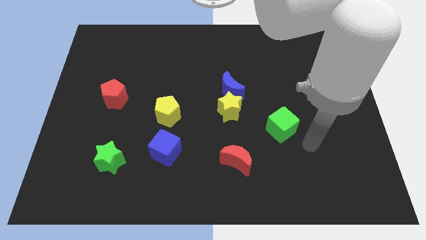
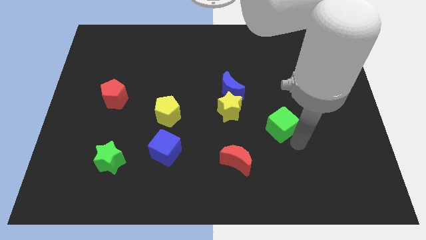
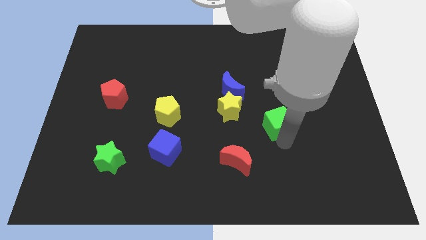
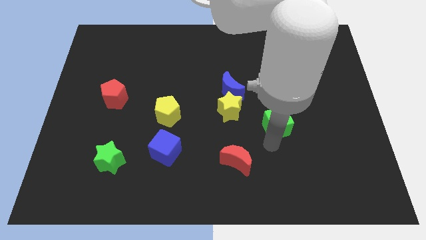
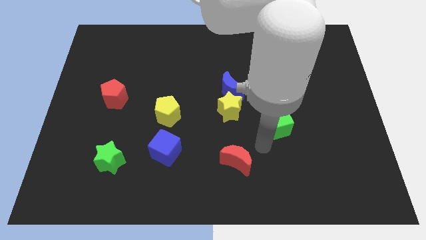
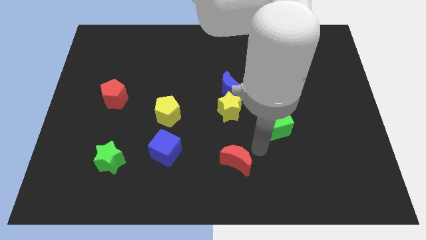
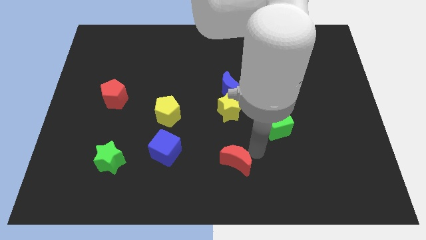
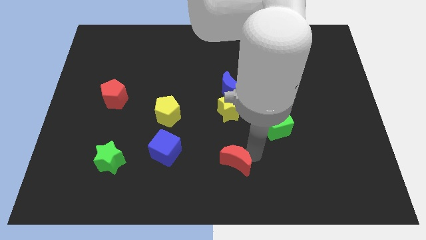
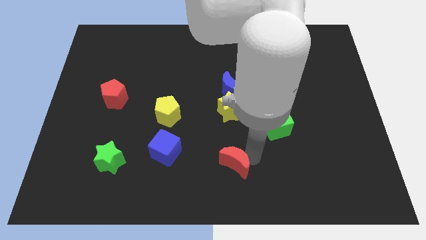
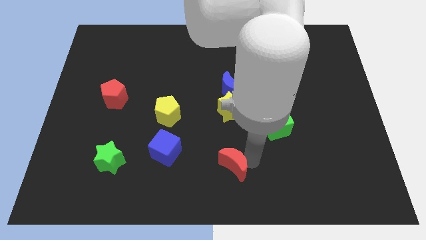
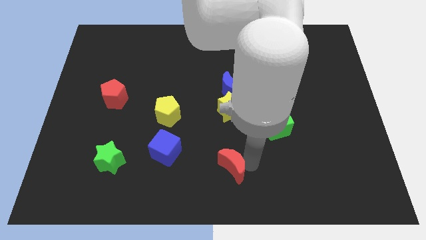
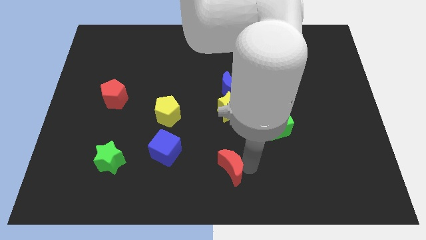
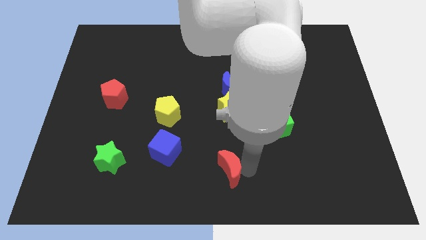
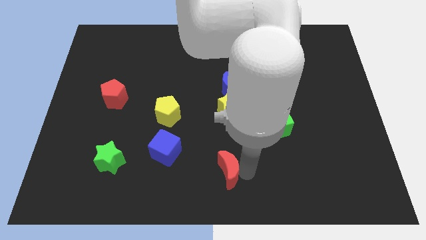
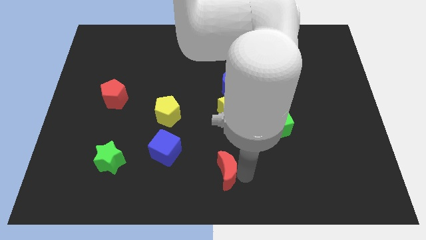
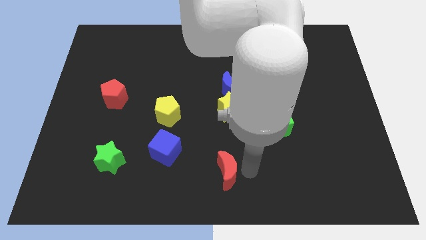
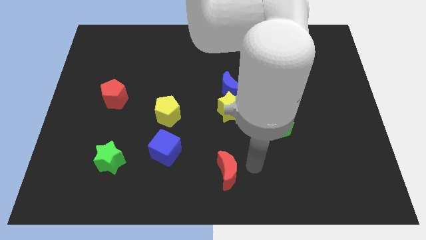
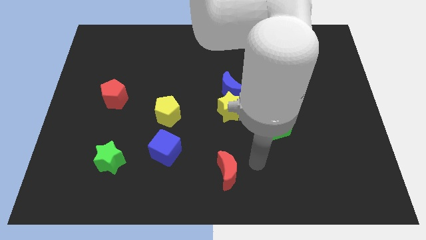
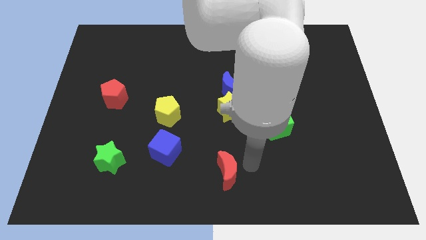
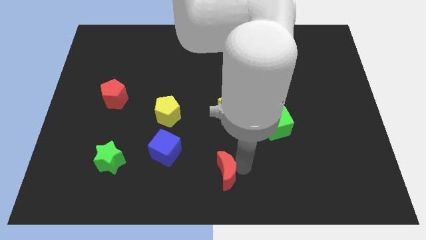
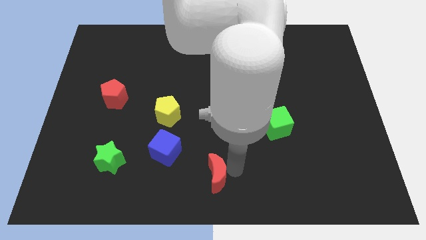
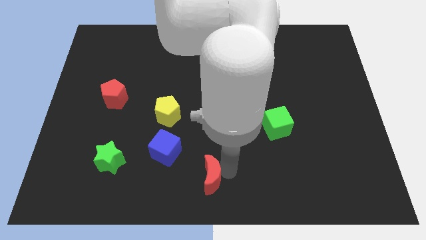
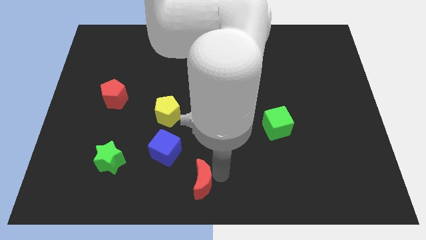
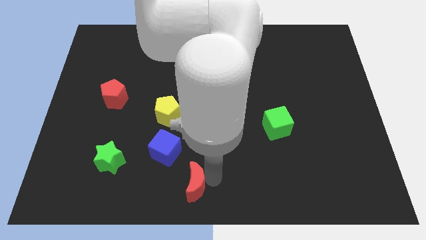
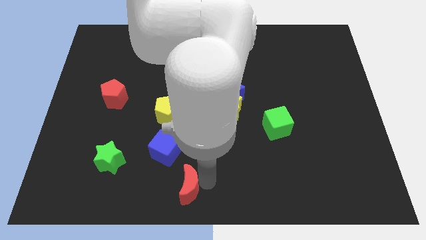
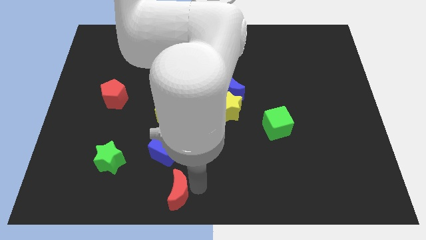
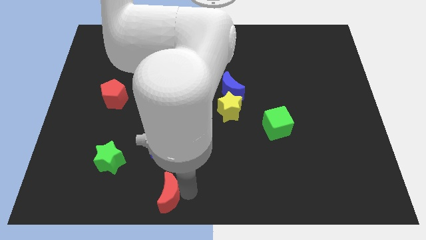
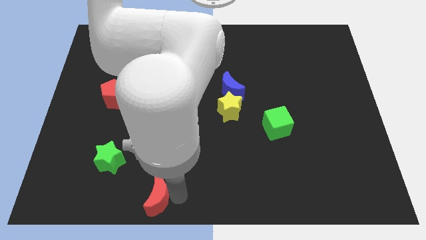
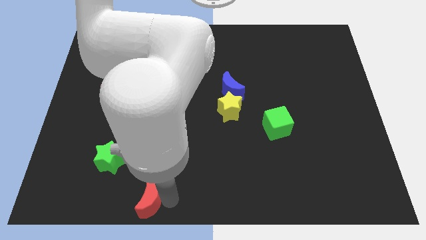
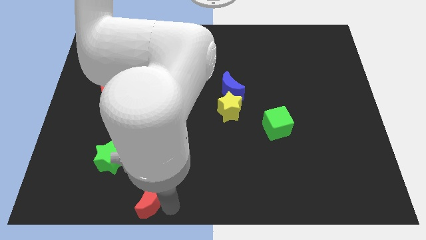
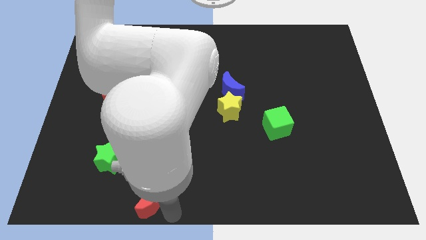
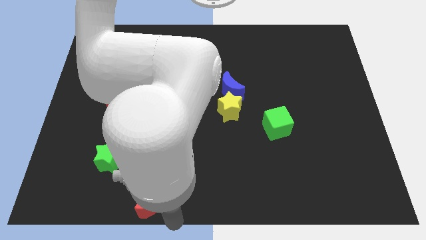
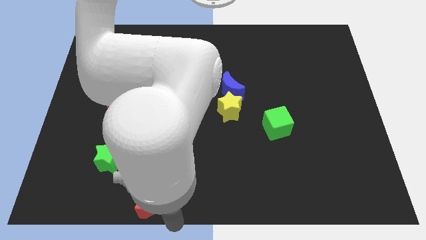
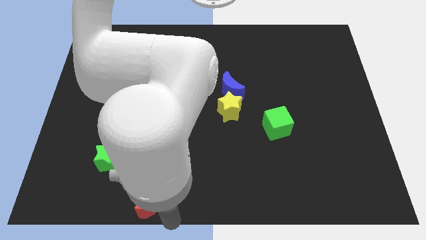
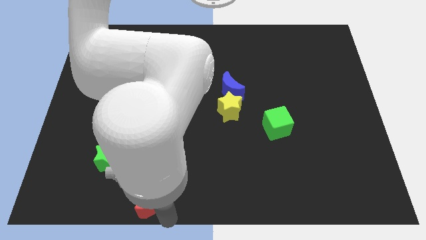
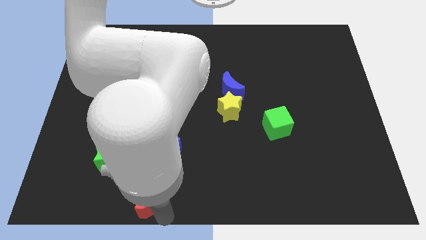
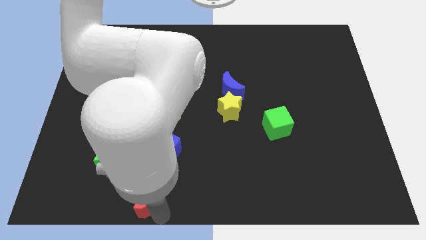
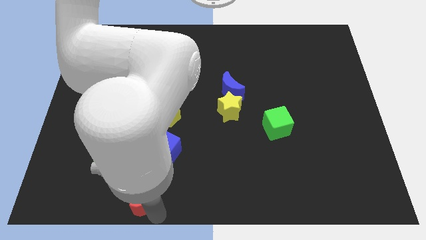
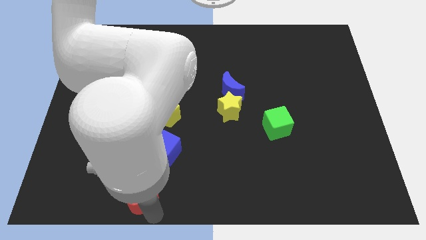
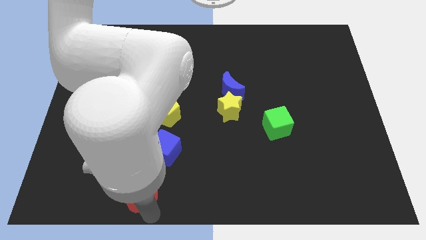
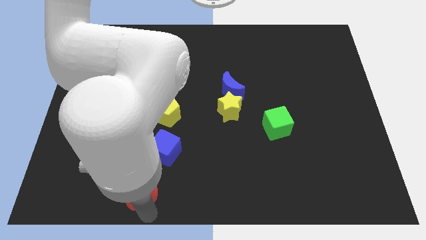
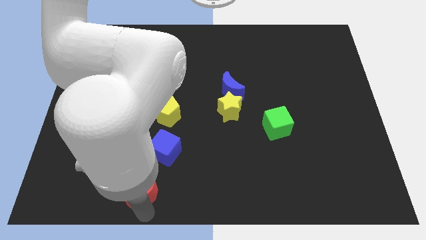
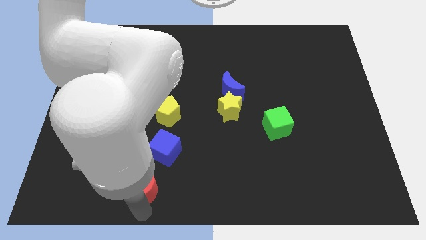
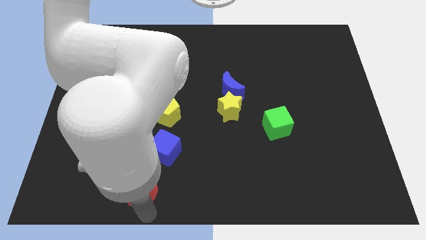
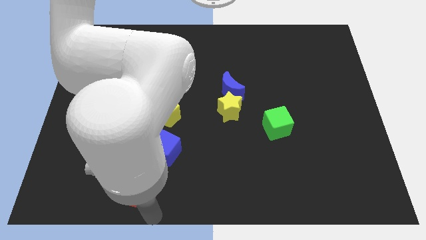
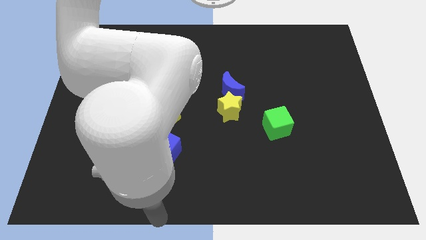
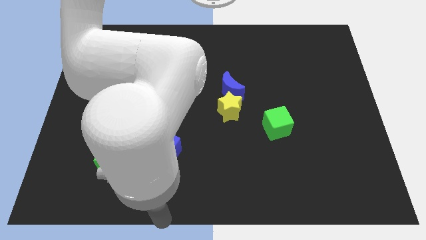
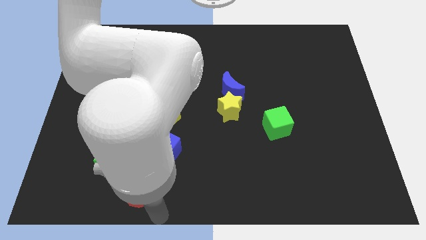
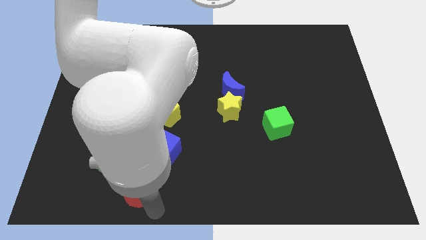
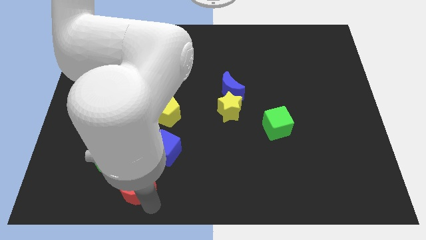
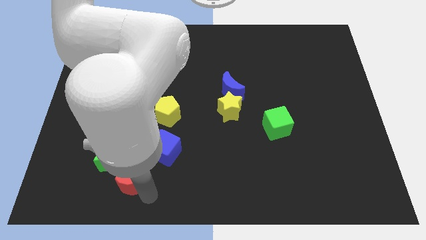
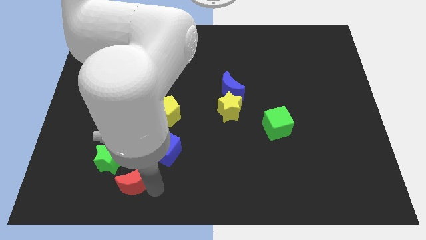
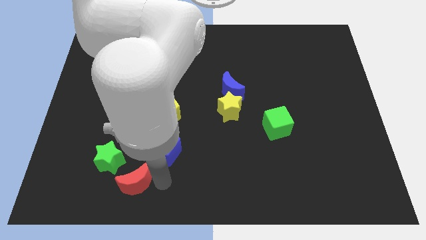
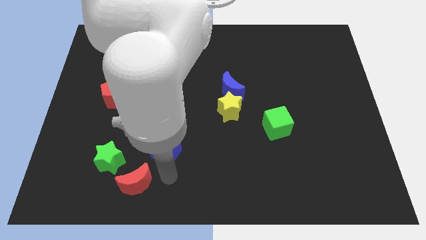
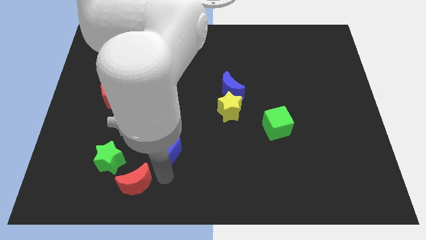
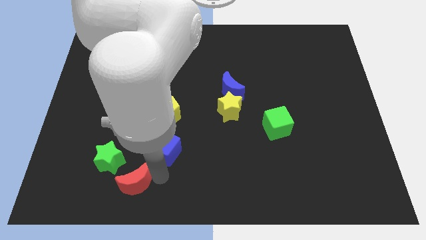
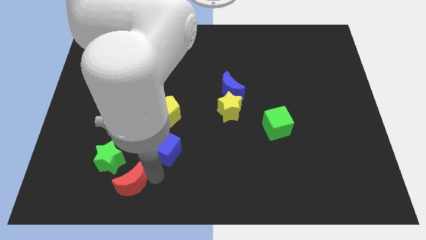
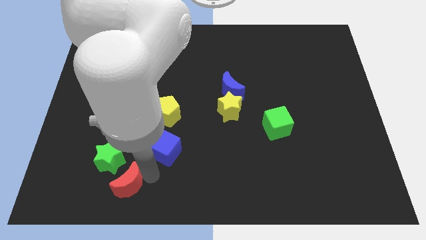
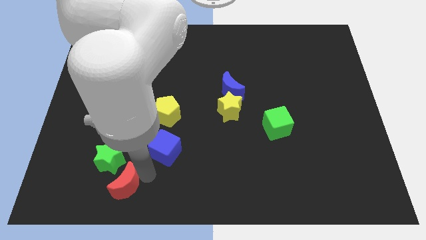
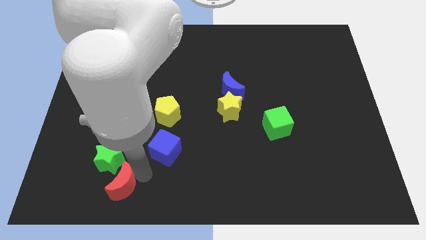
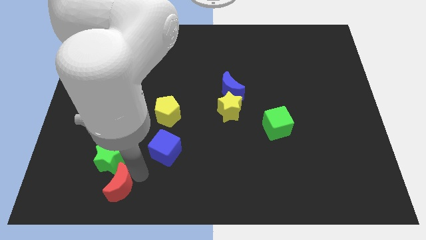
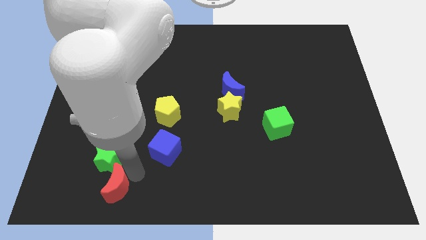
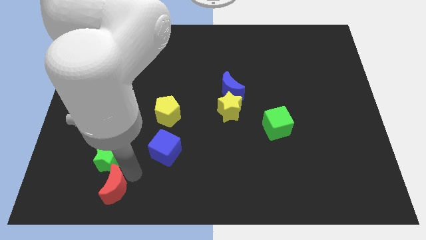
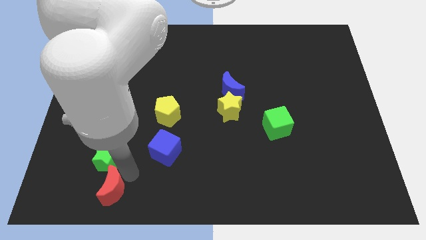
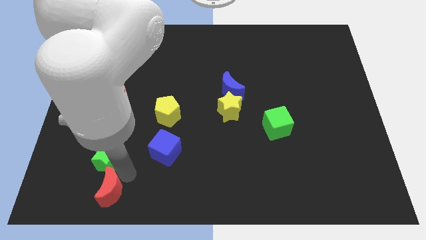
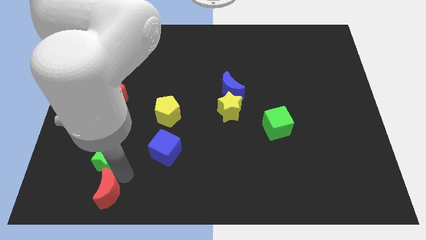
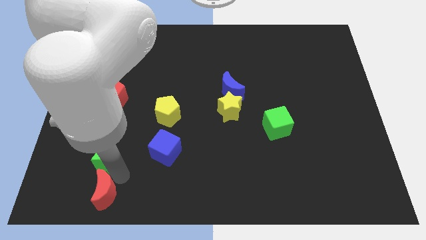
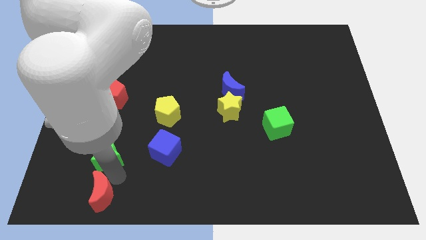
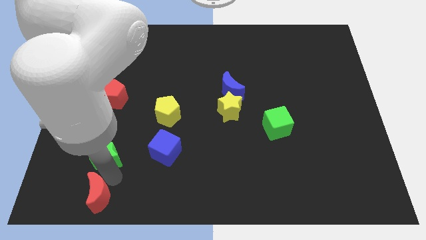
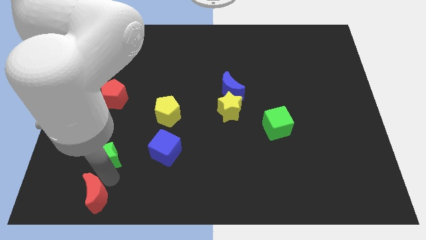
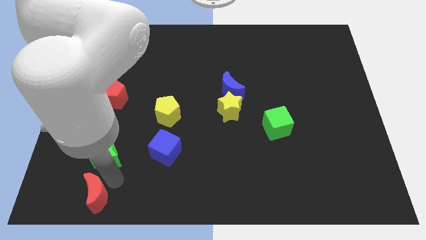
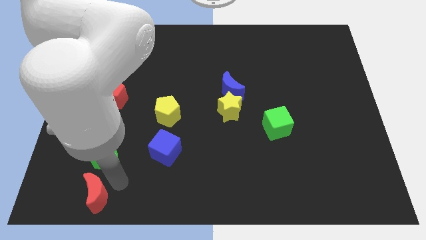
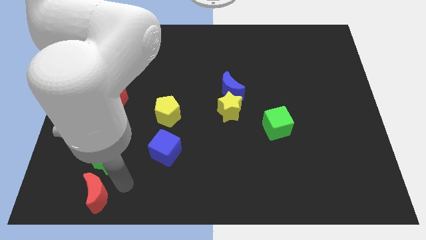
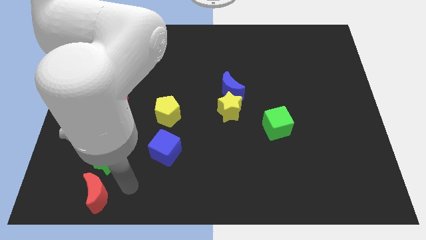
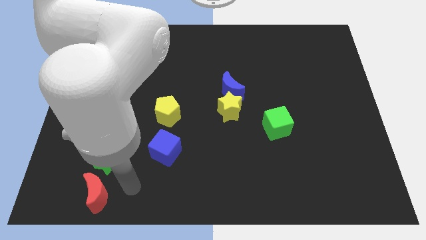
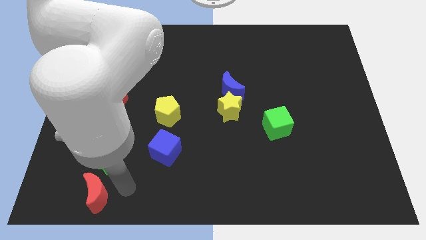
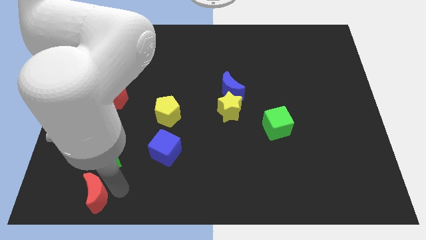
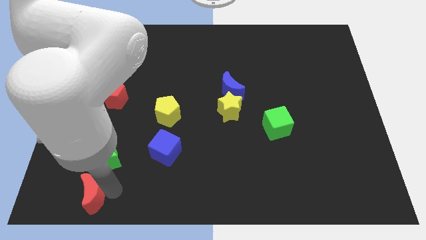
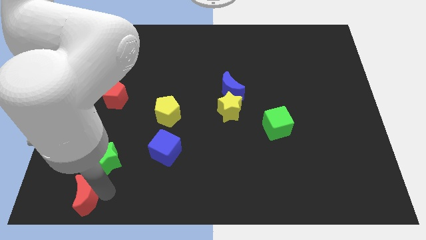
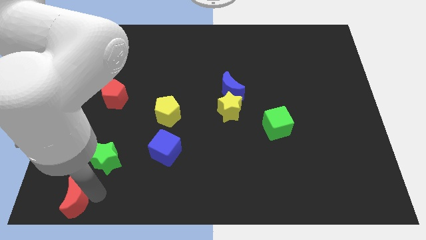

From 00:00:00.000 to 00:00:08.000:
slide the red moon to the bottom left corner
